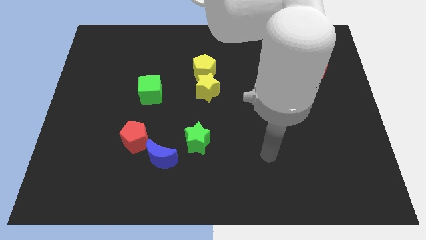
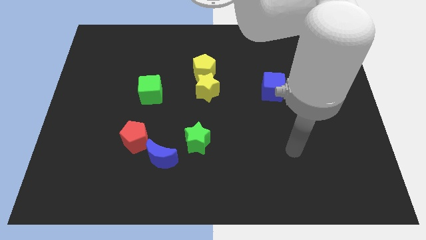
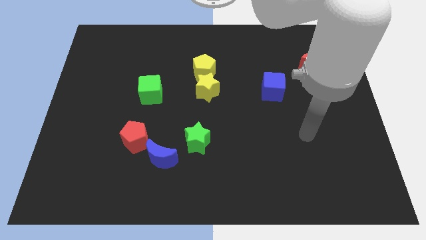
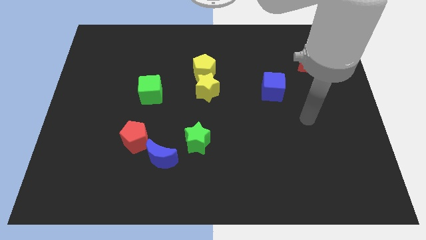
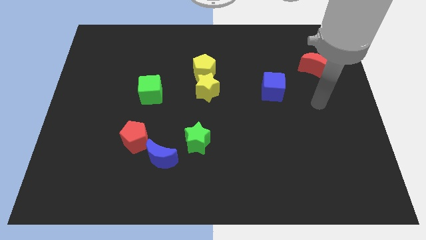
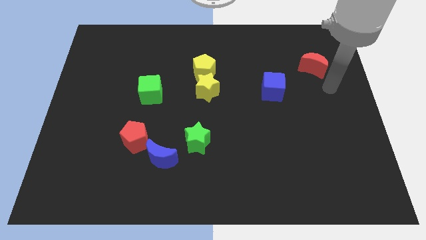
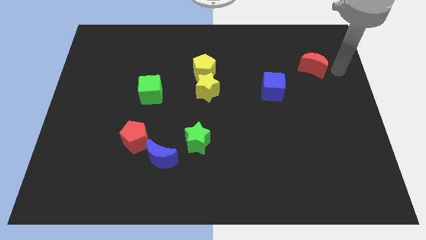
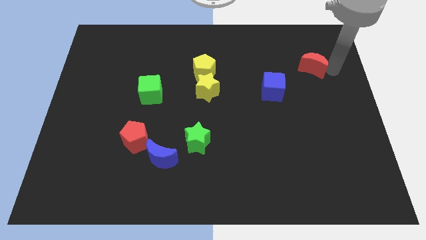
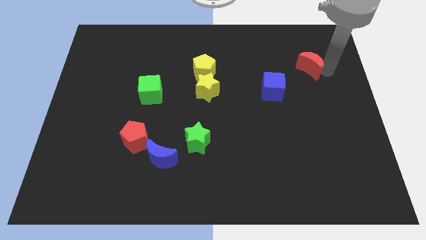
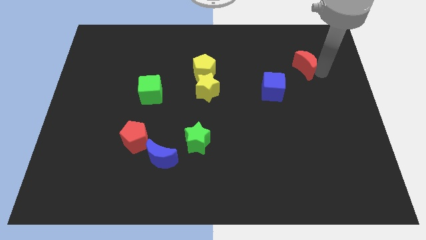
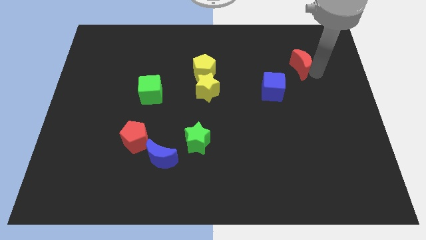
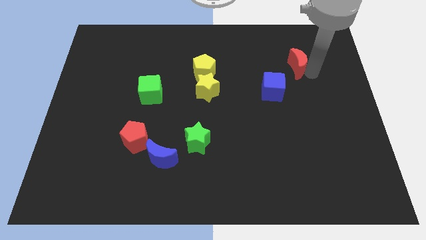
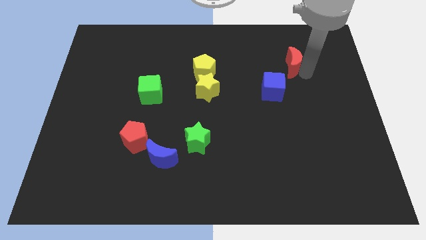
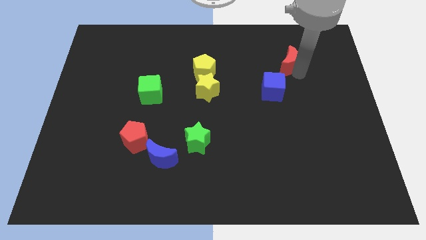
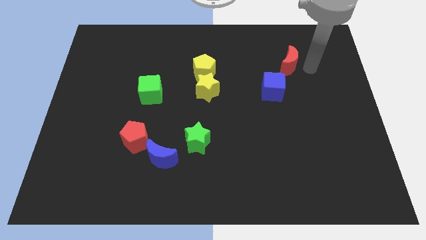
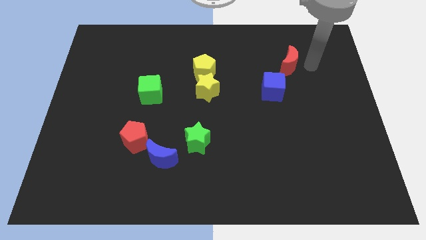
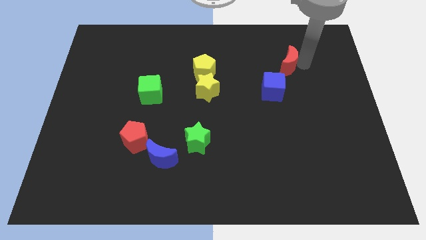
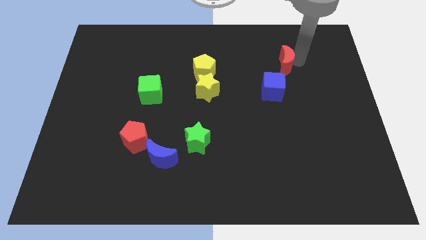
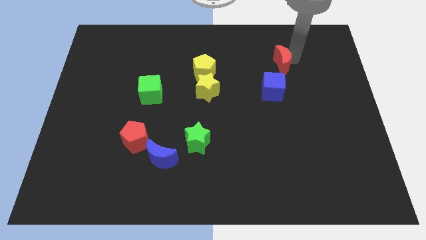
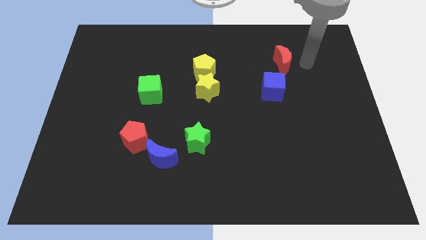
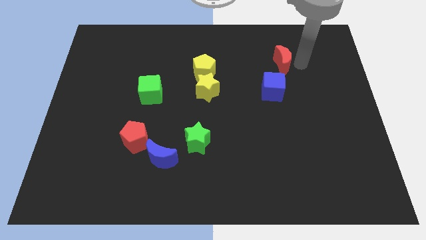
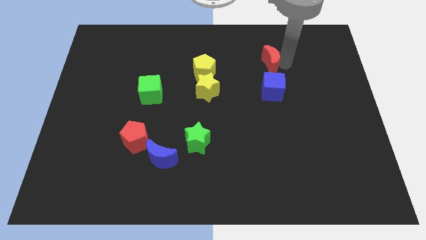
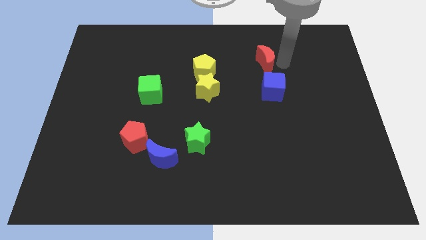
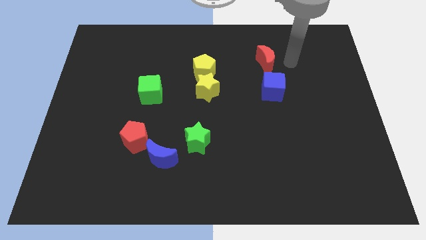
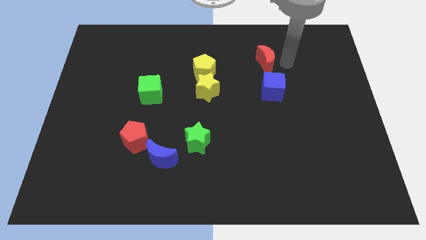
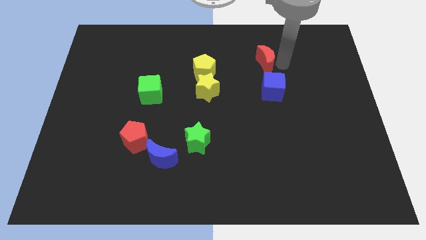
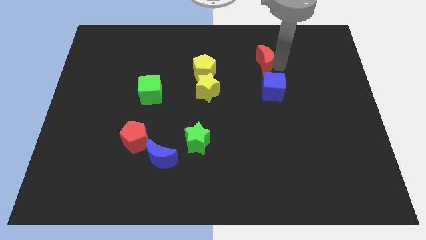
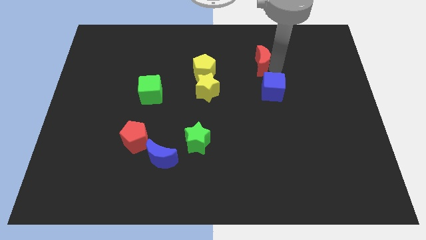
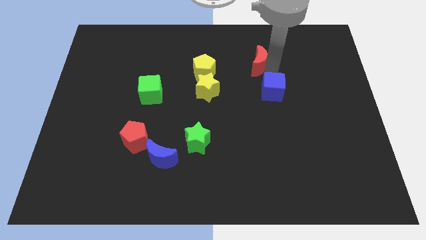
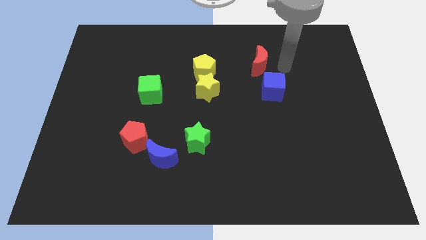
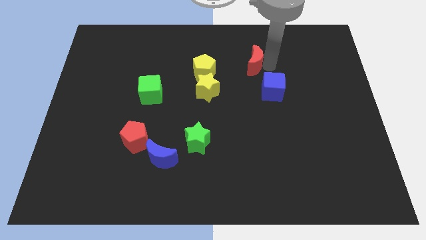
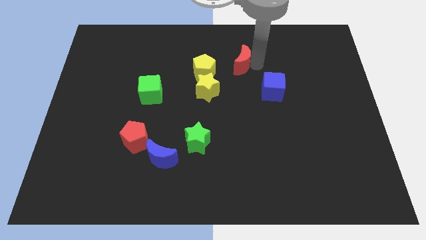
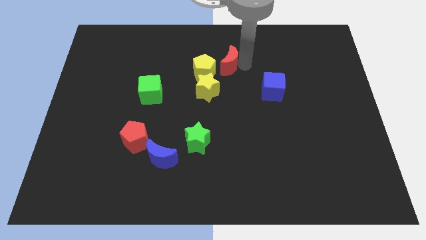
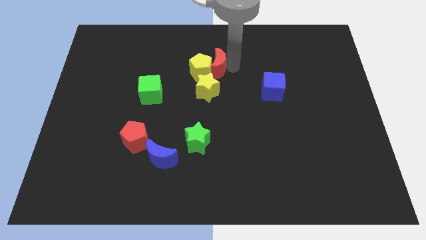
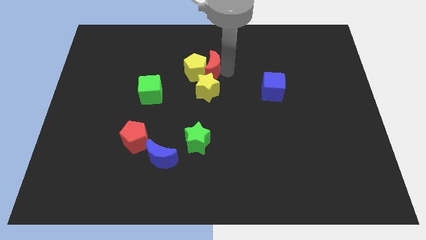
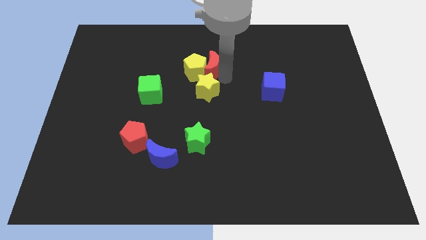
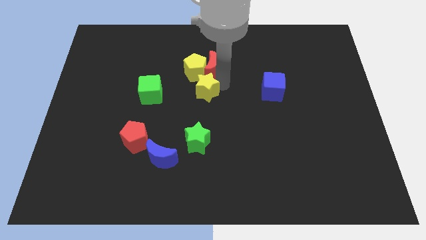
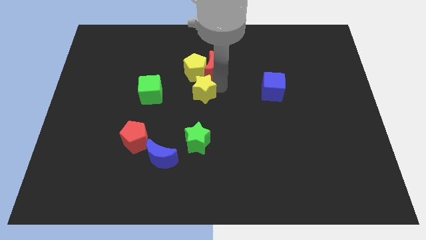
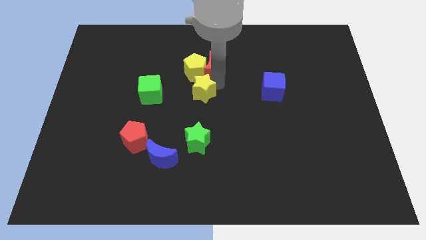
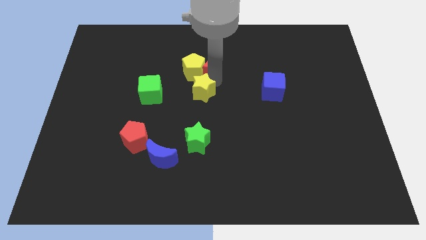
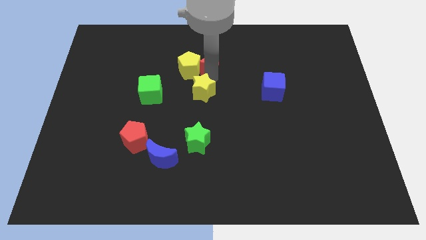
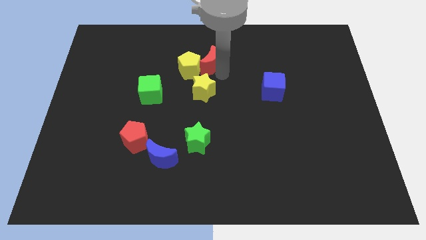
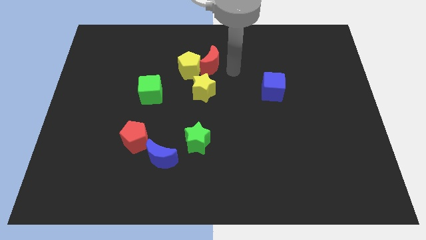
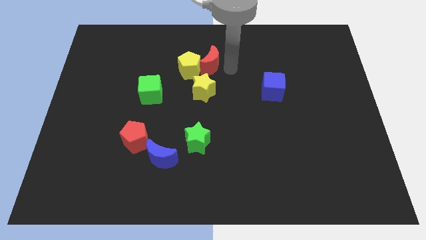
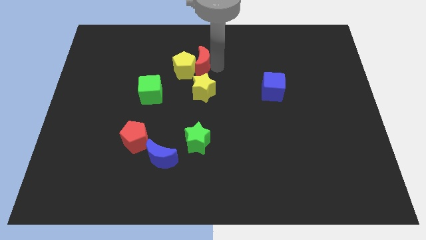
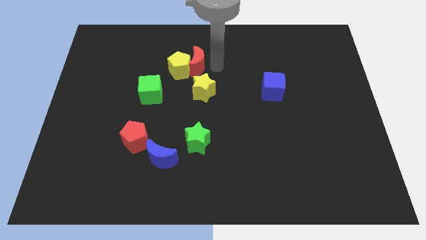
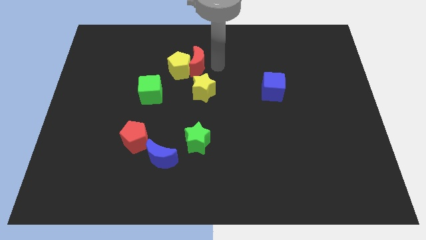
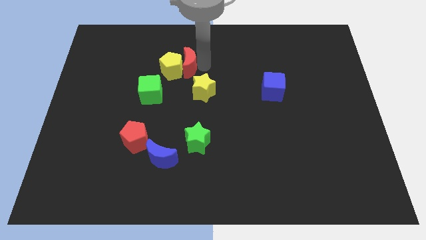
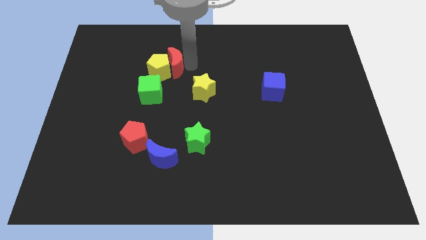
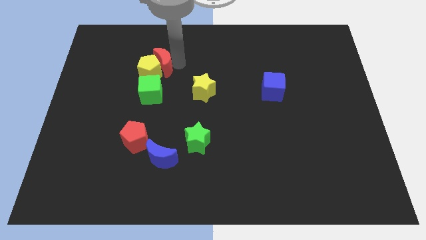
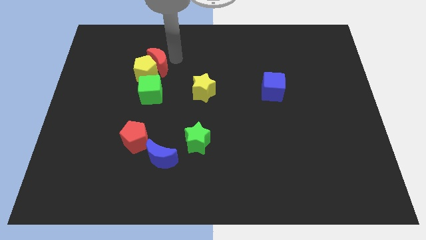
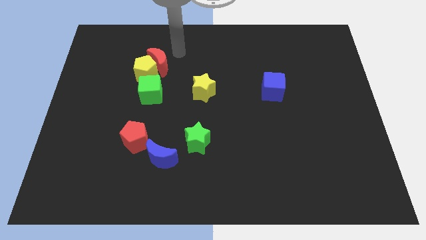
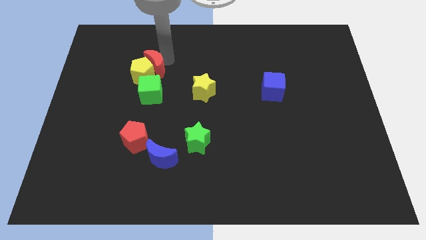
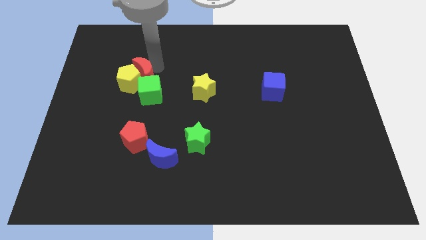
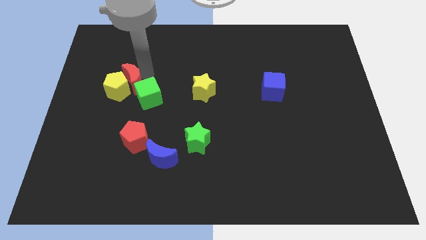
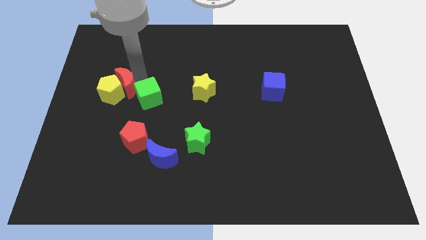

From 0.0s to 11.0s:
move the red moon to the left of the green cube

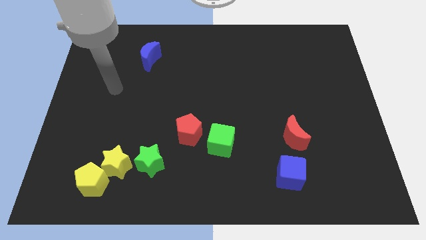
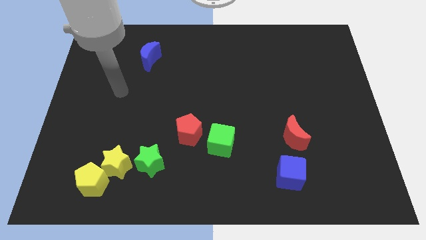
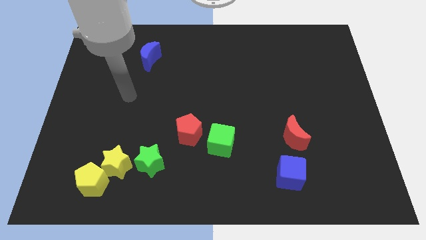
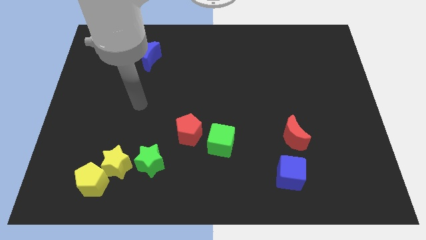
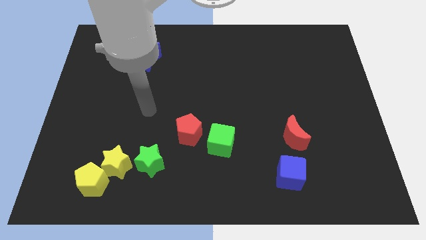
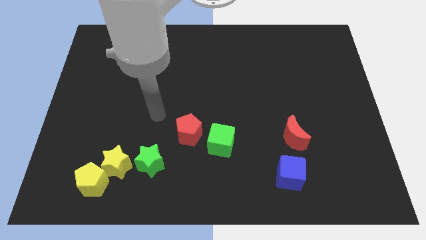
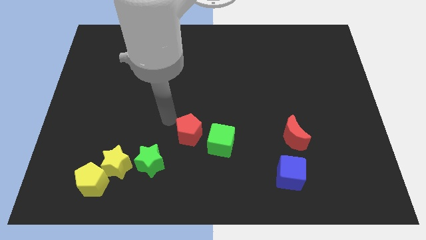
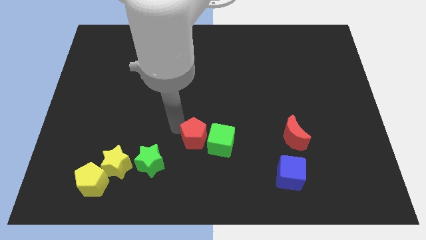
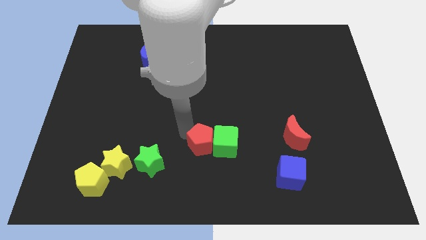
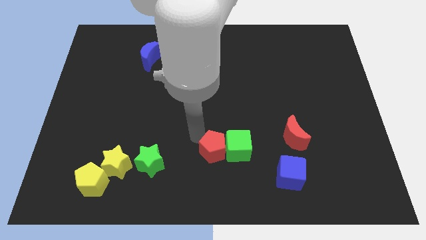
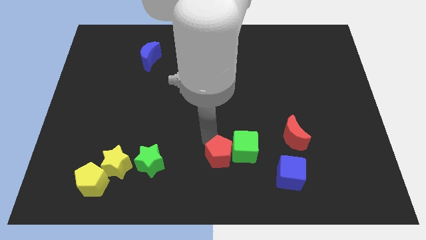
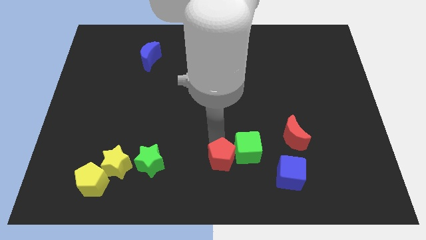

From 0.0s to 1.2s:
push the green cube diagonally down and to the left of the red moon

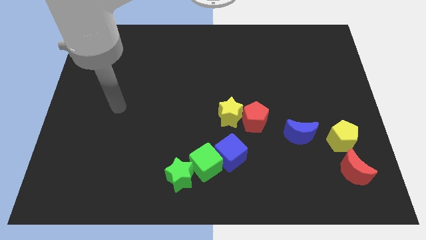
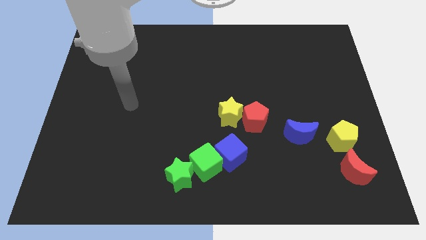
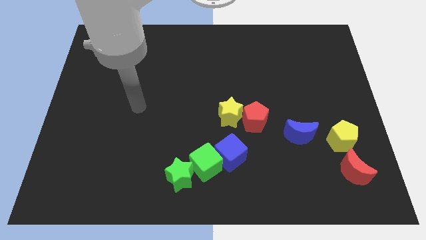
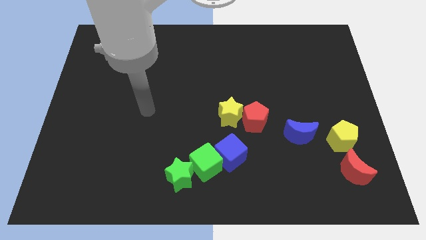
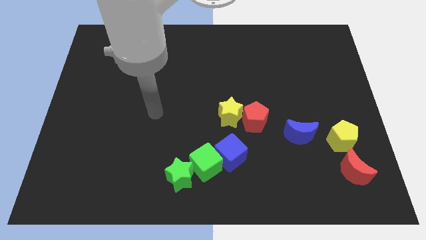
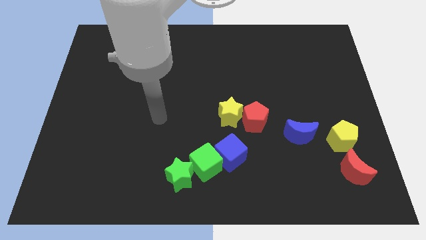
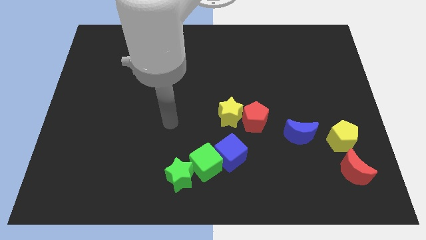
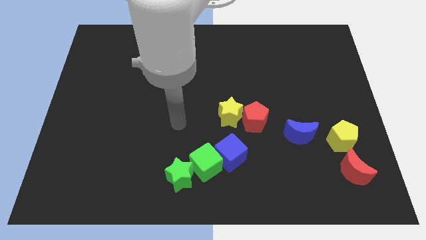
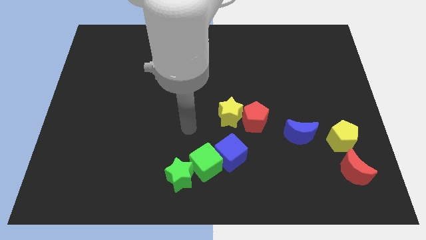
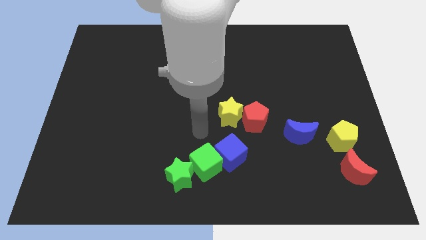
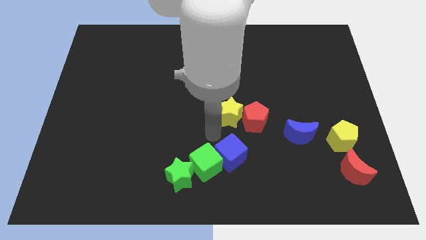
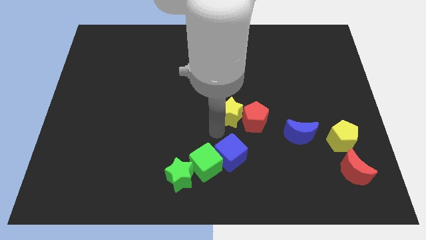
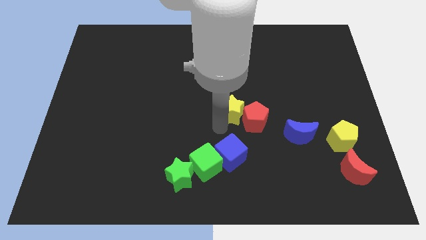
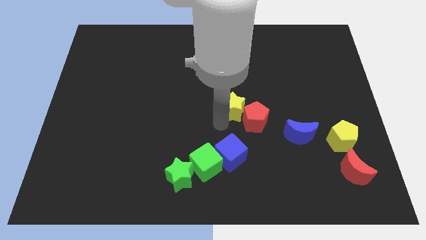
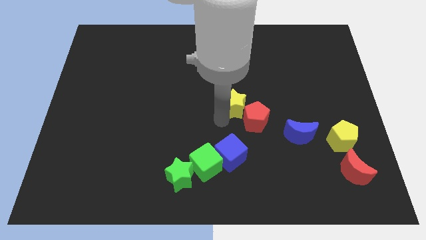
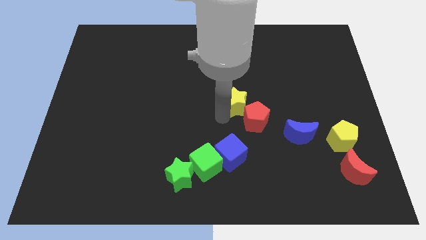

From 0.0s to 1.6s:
slide the yellow star to the top of the red pentagon

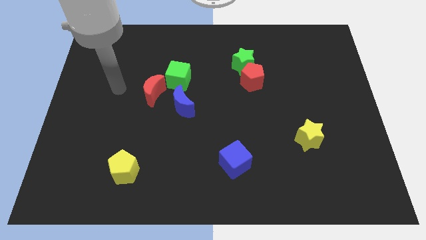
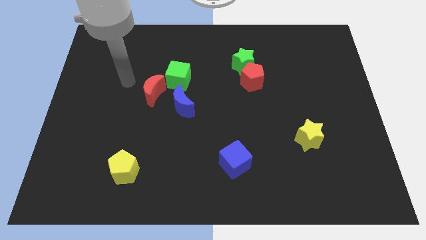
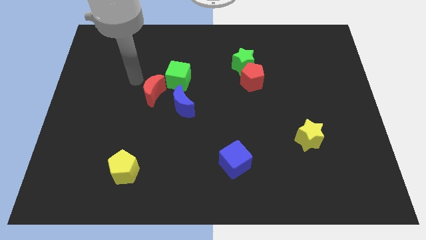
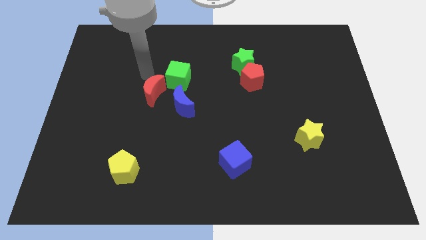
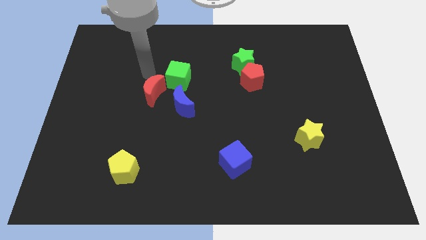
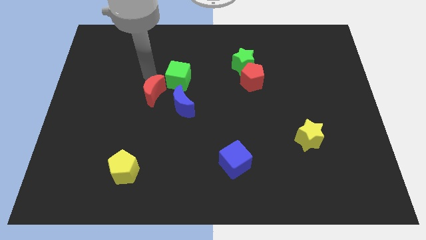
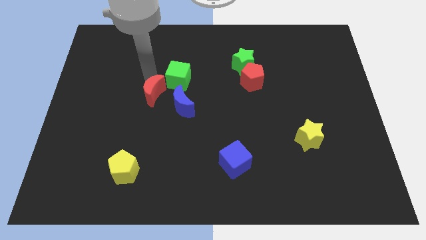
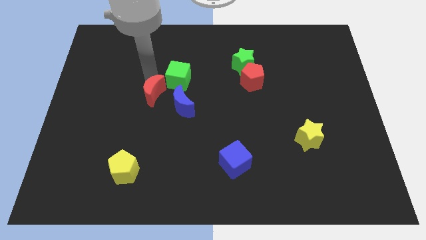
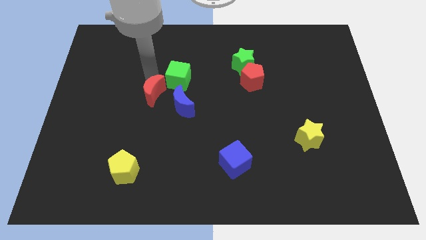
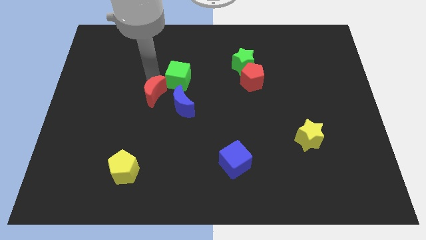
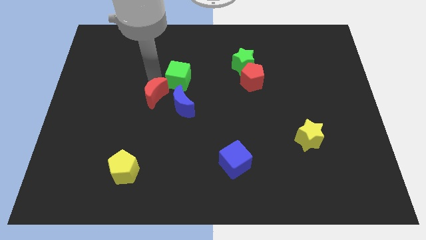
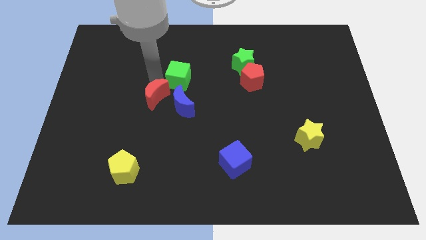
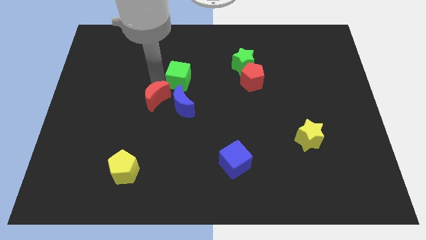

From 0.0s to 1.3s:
slide the red moon below the green cube
